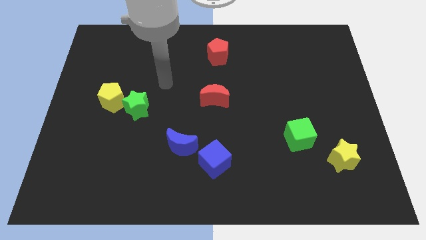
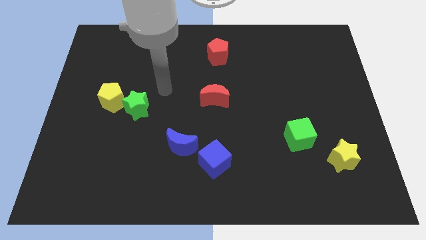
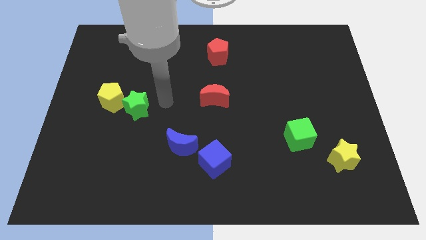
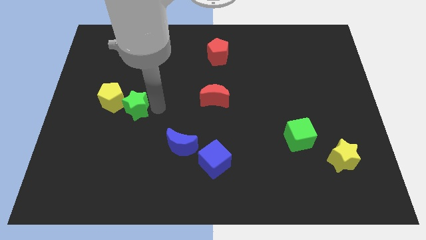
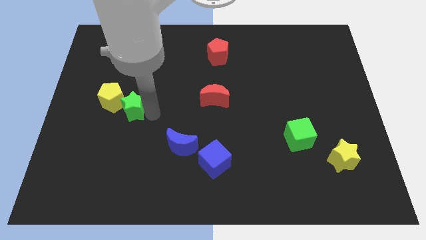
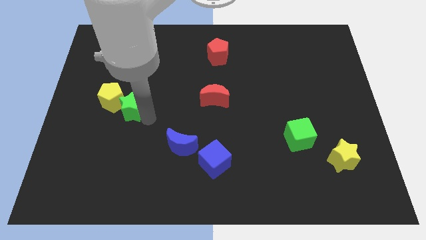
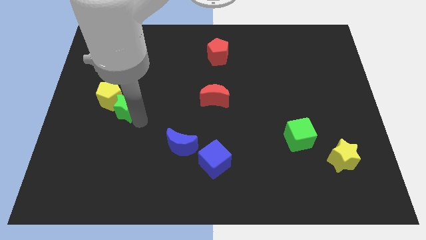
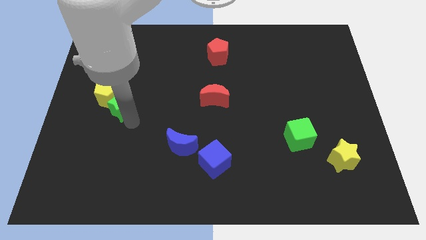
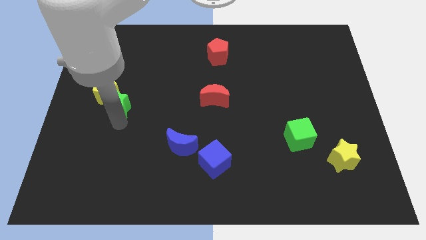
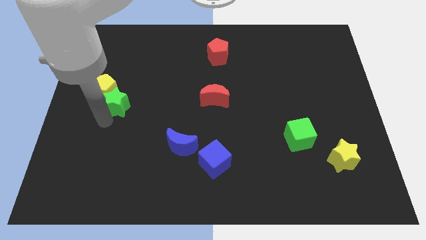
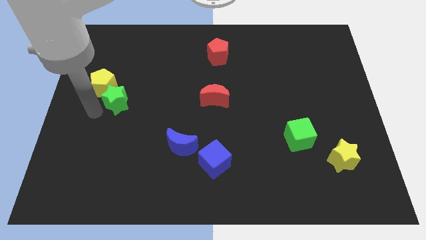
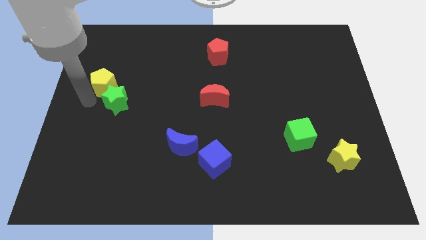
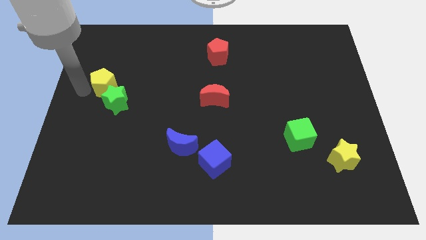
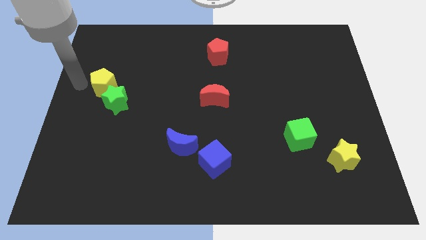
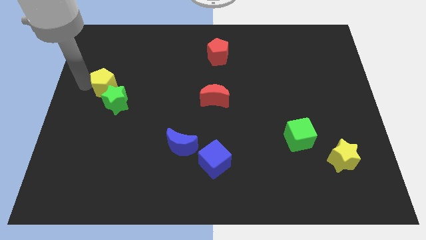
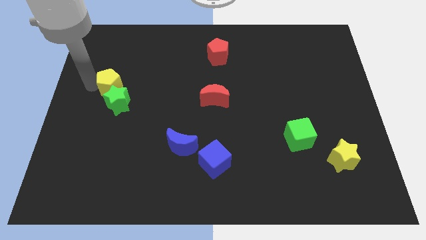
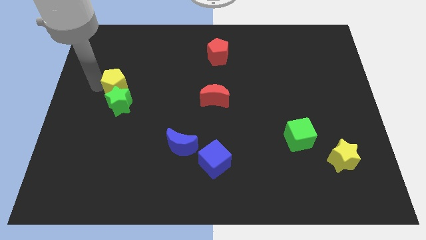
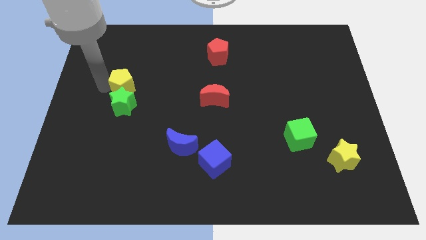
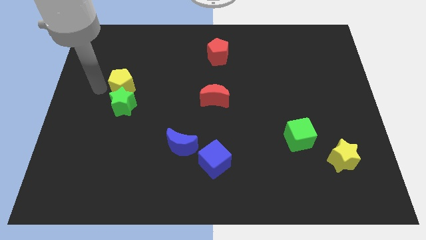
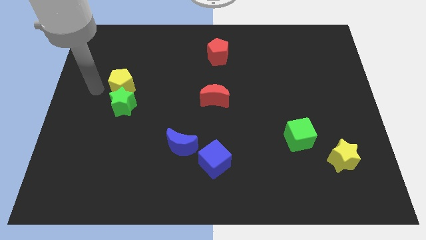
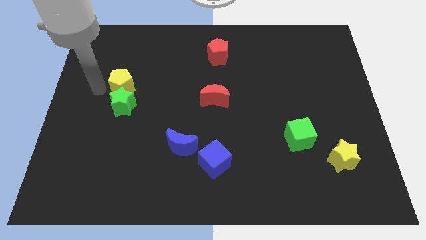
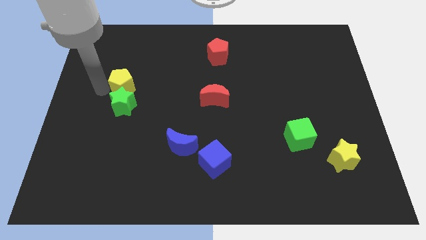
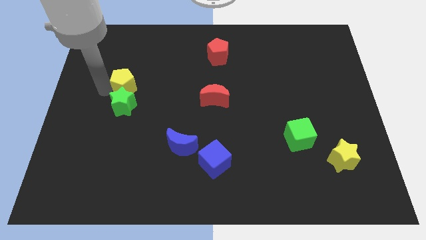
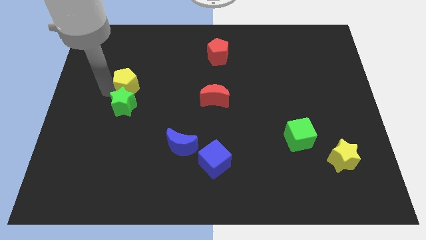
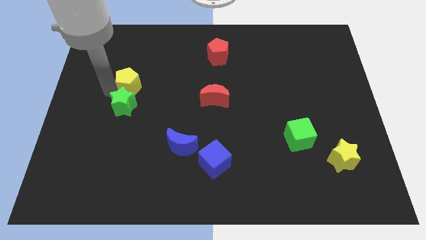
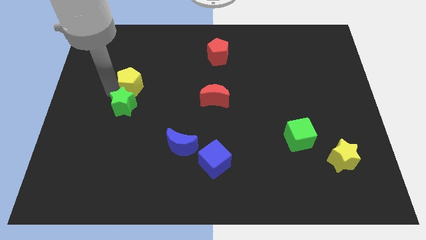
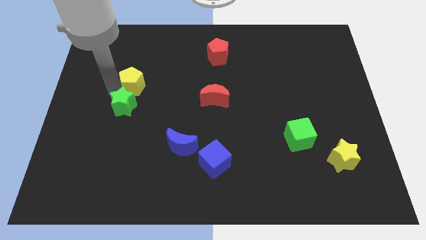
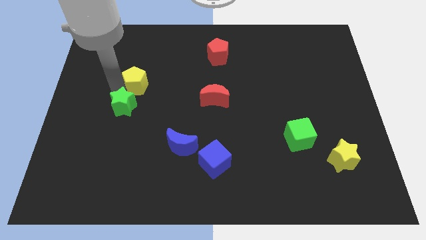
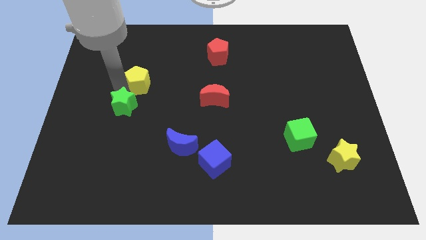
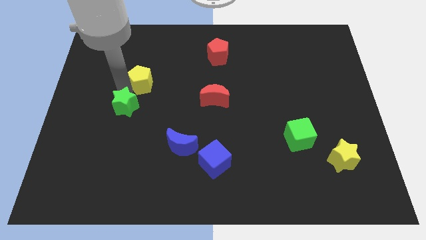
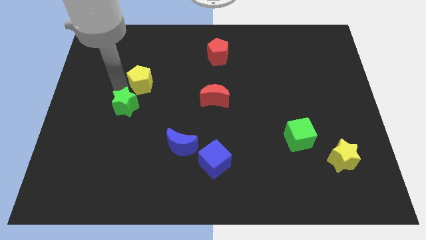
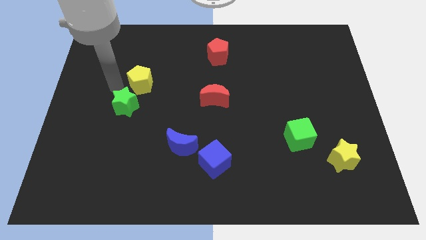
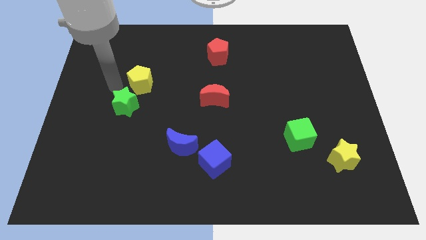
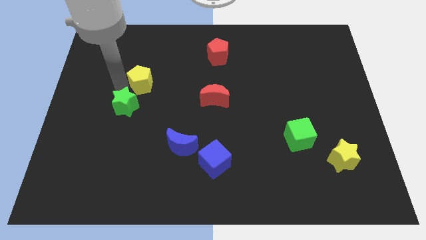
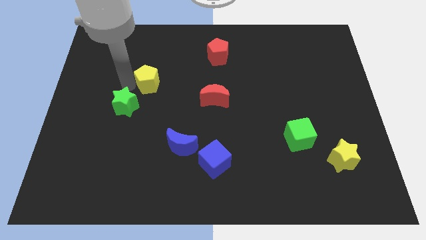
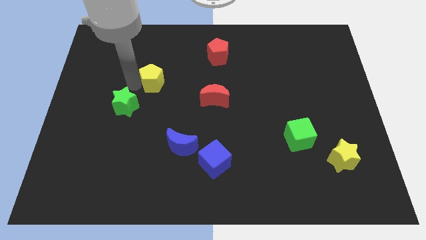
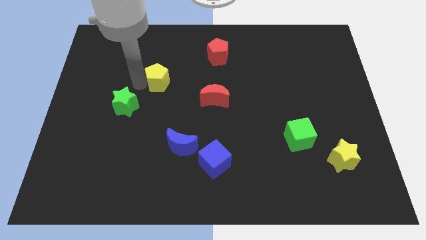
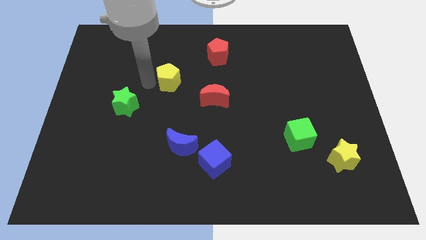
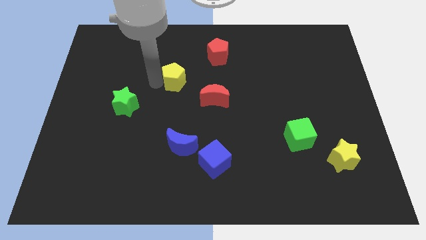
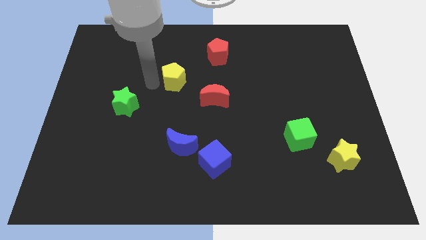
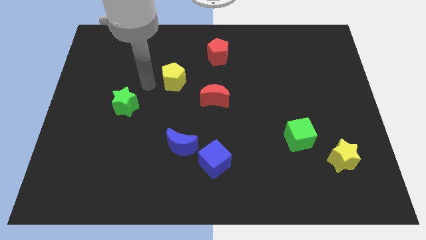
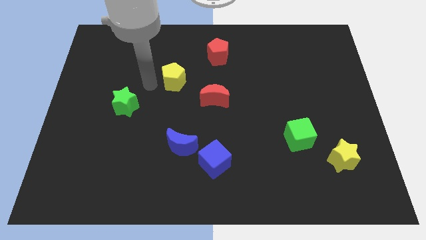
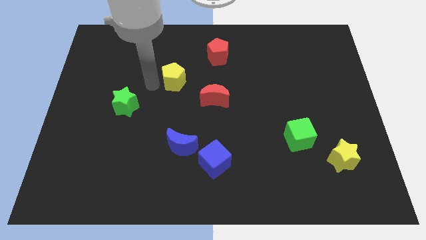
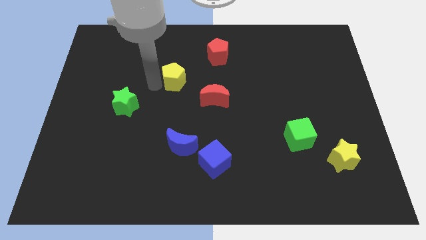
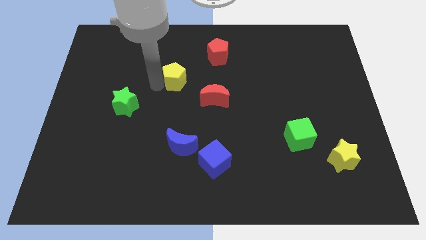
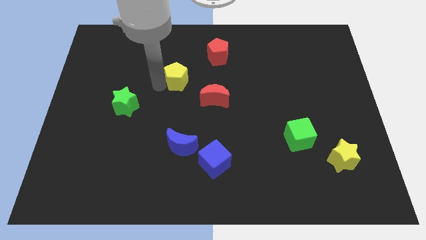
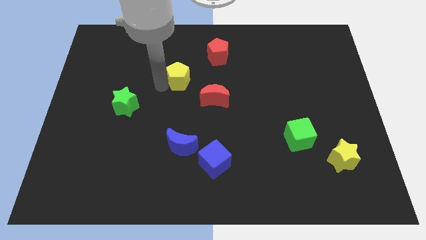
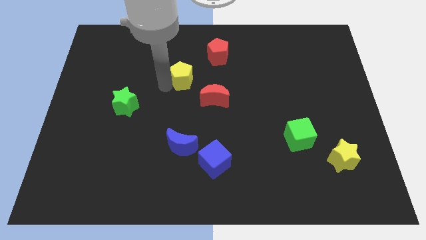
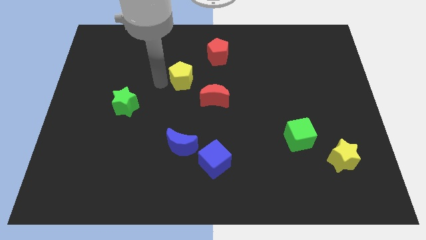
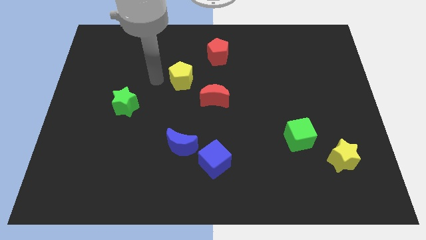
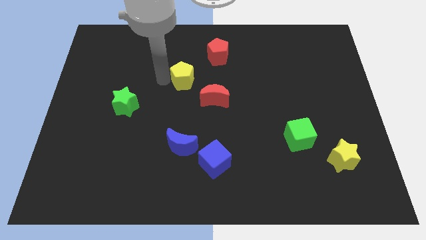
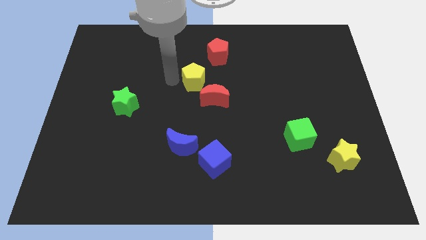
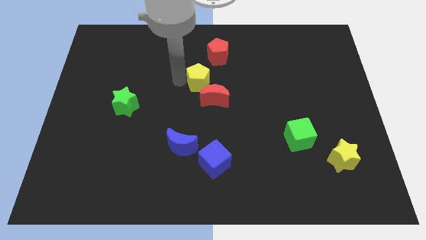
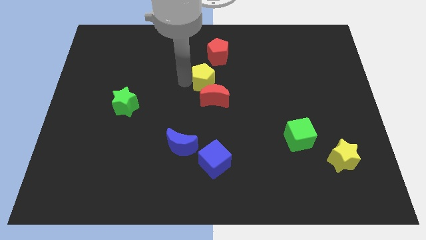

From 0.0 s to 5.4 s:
push the yellow pentagon to the right

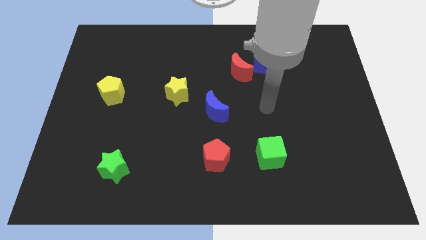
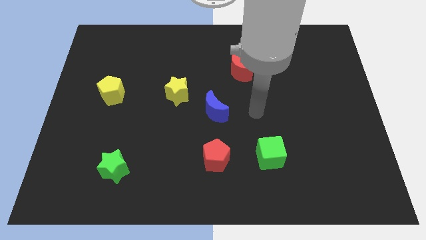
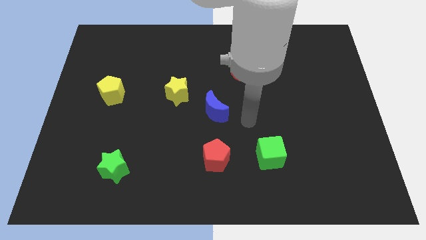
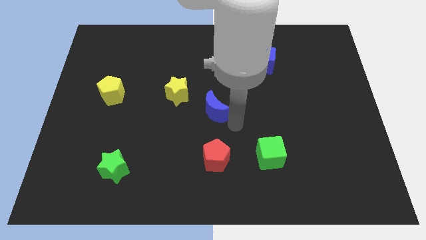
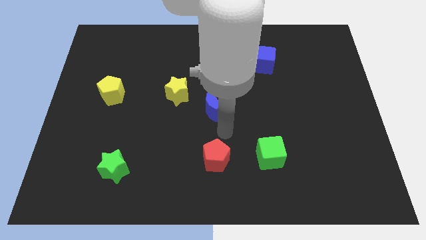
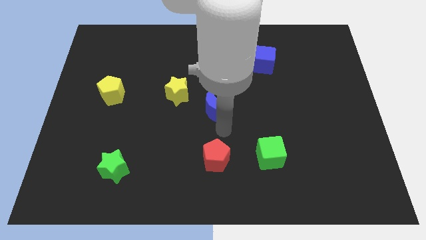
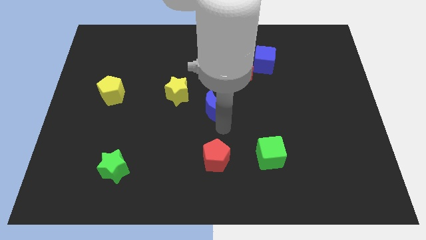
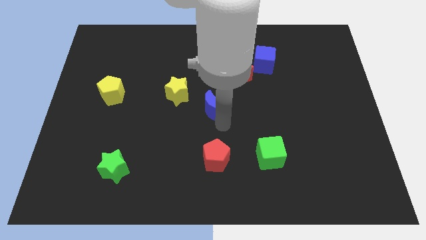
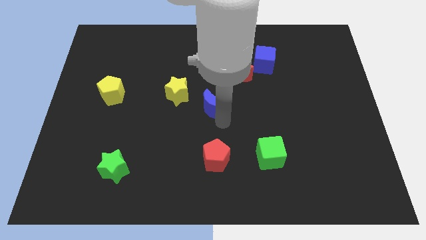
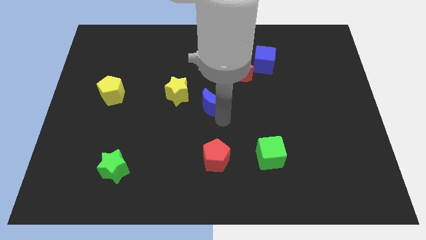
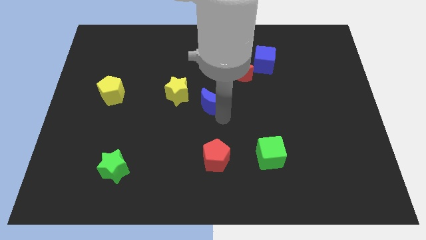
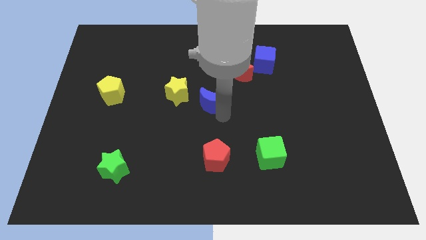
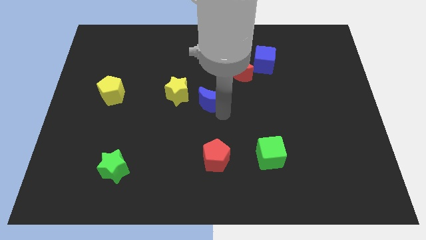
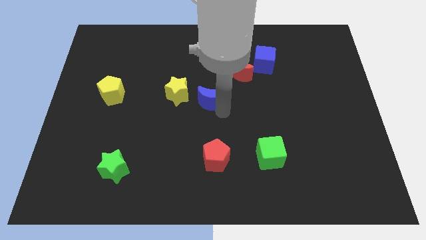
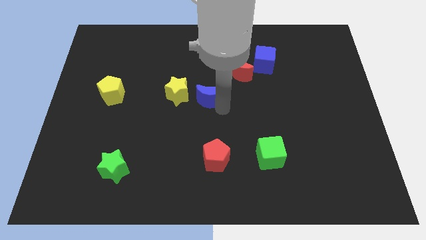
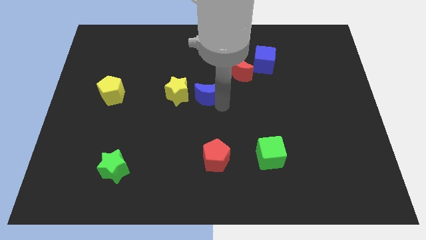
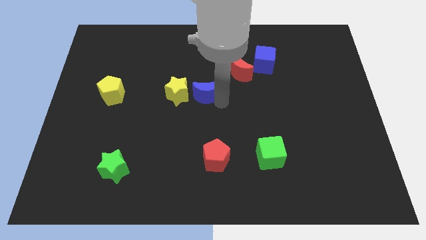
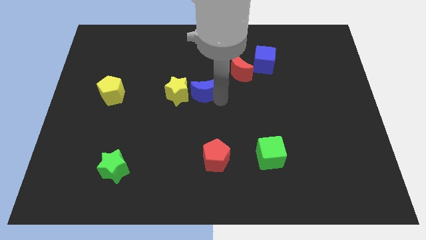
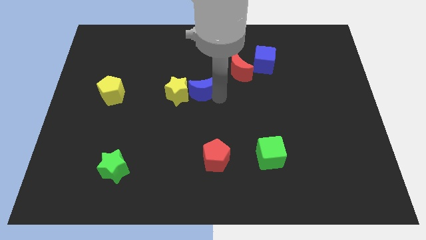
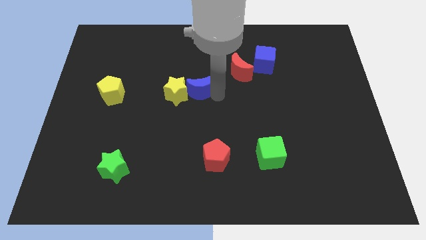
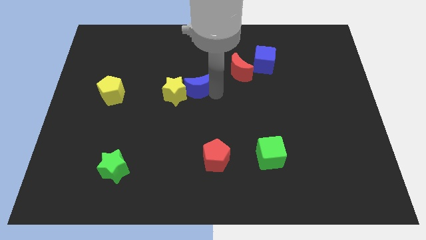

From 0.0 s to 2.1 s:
slide the blue moon a little up and then to the left

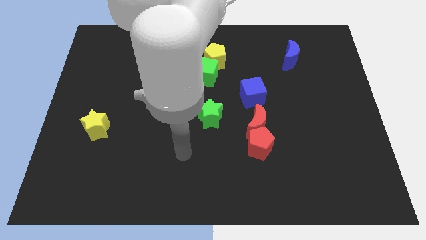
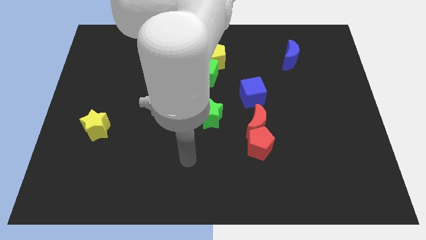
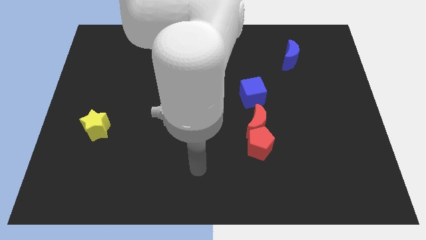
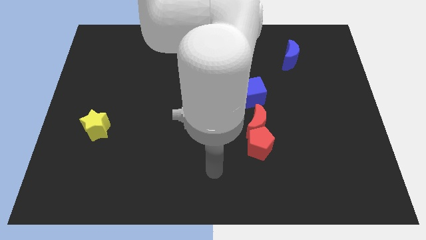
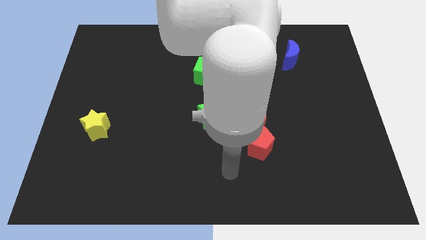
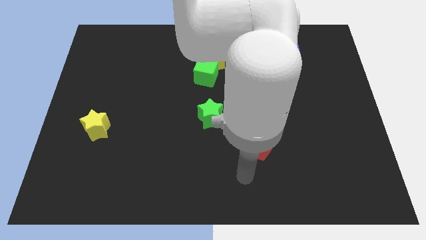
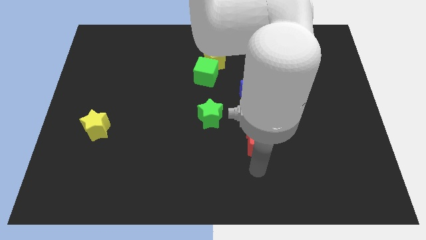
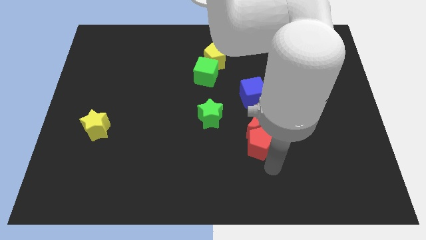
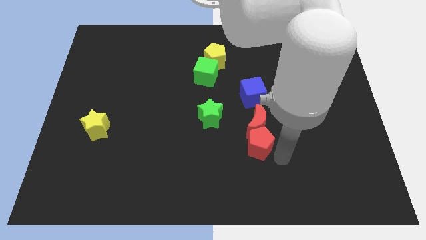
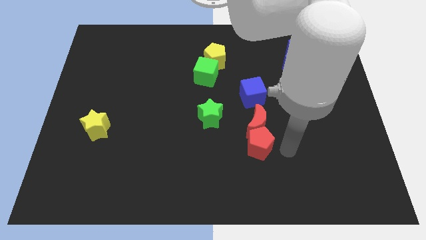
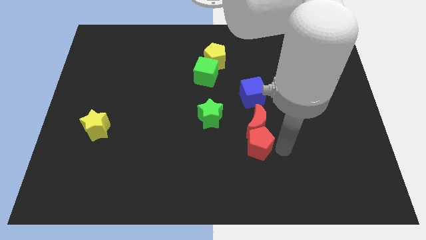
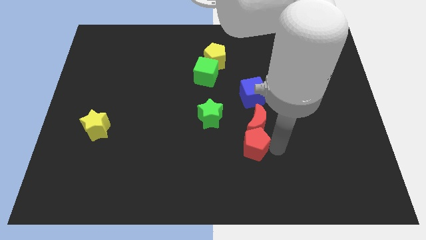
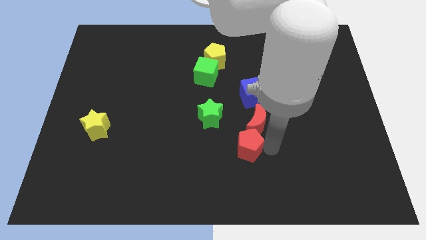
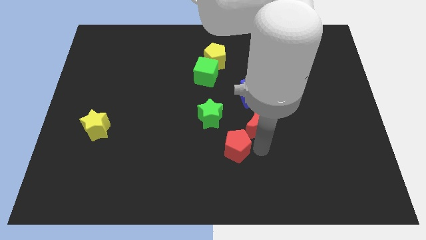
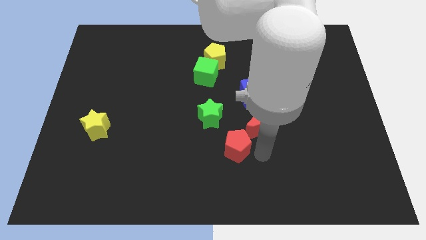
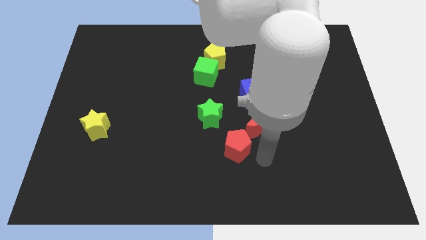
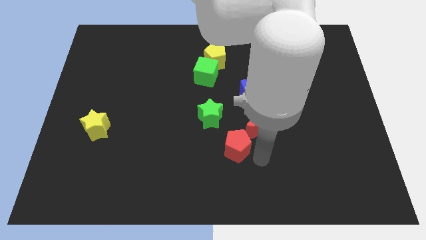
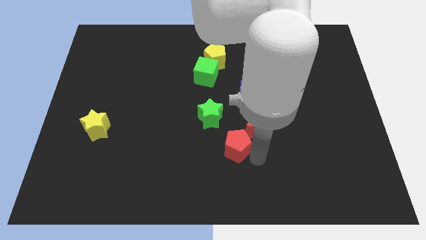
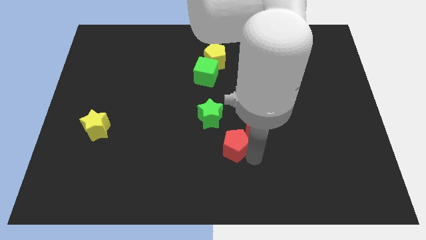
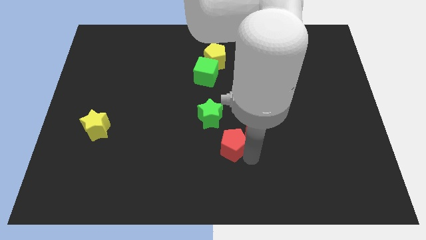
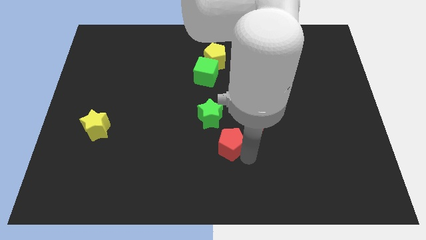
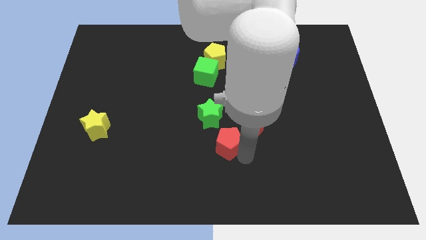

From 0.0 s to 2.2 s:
slightly push the red pentagon left
